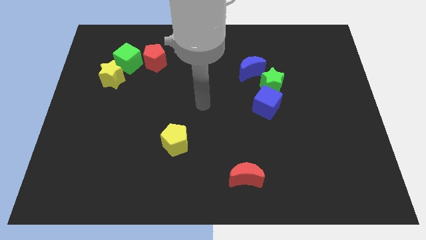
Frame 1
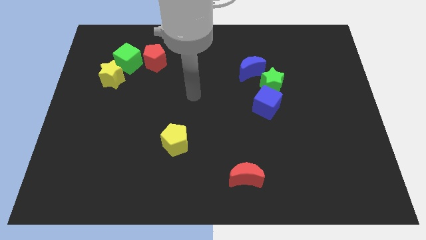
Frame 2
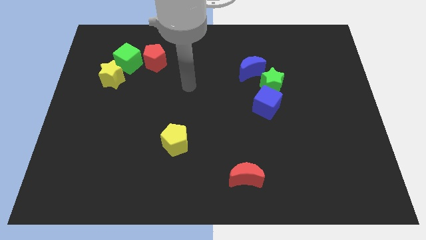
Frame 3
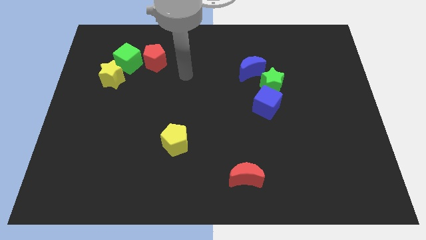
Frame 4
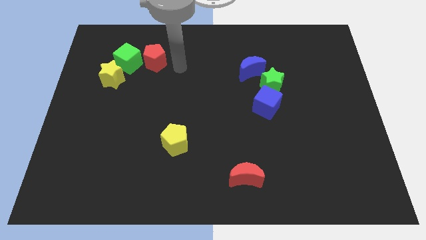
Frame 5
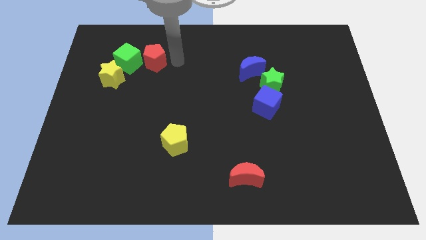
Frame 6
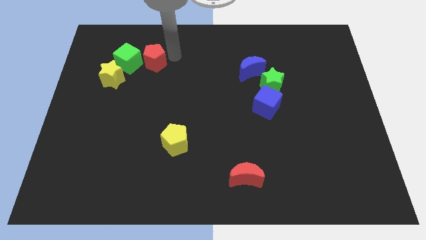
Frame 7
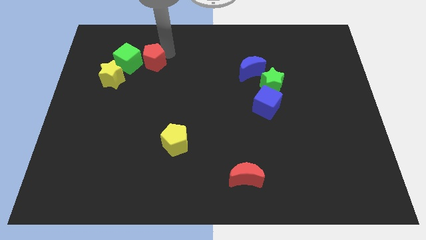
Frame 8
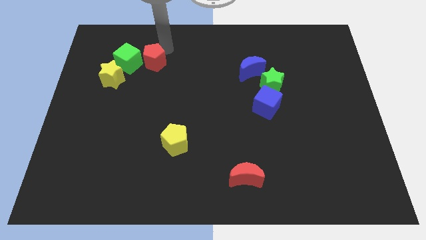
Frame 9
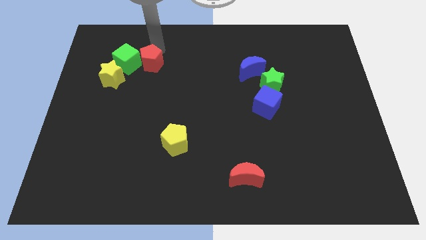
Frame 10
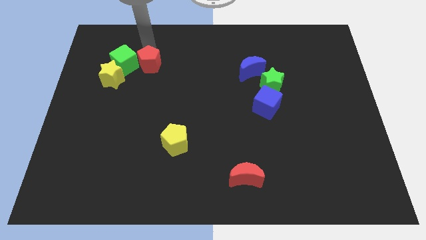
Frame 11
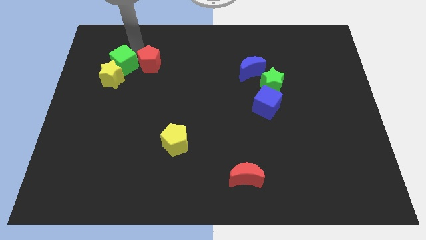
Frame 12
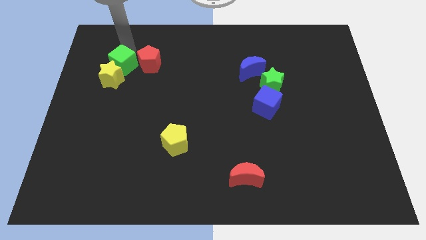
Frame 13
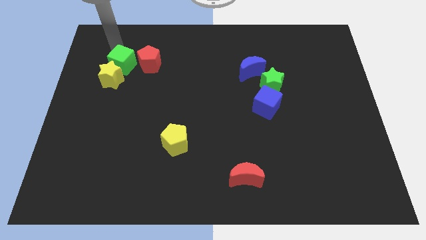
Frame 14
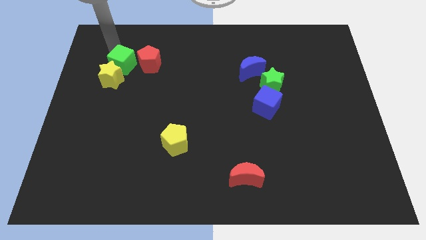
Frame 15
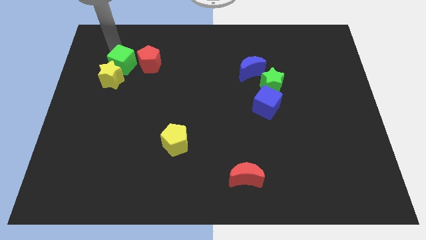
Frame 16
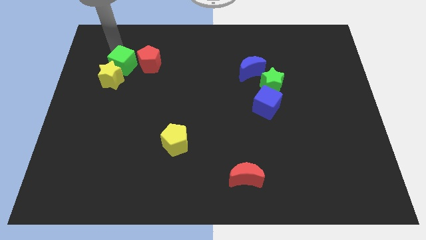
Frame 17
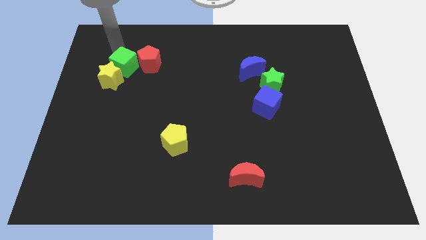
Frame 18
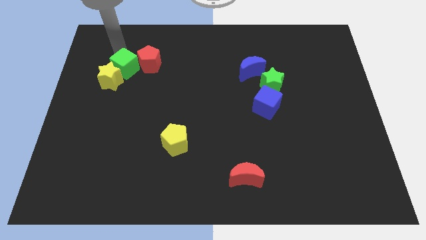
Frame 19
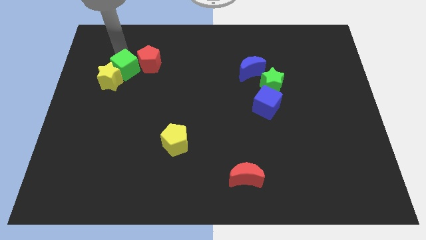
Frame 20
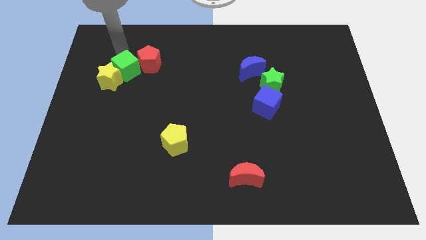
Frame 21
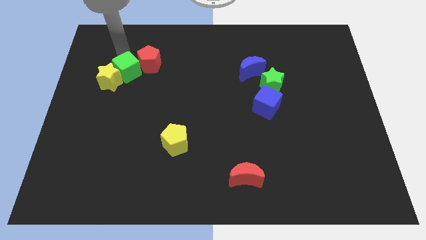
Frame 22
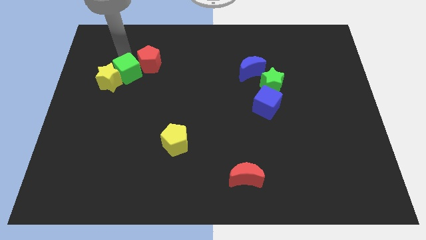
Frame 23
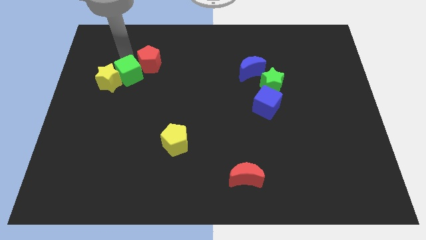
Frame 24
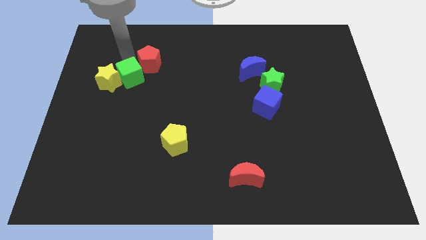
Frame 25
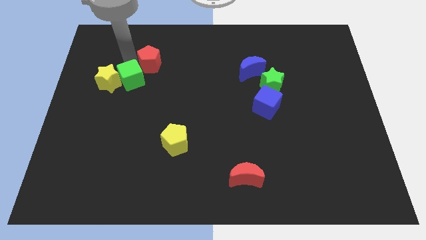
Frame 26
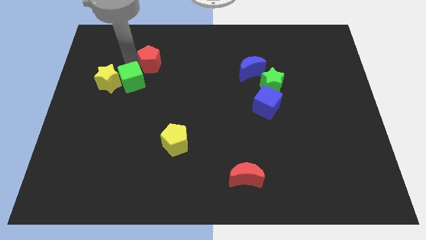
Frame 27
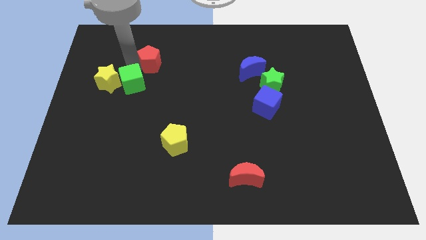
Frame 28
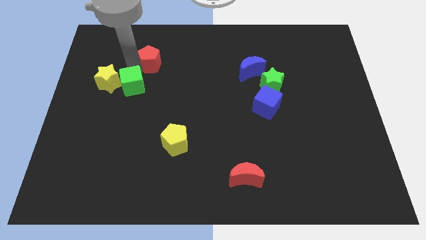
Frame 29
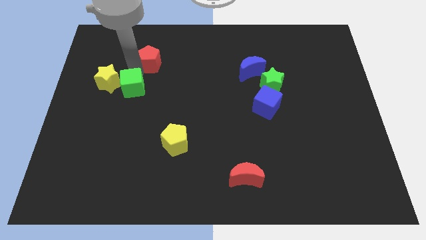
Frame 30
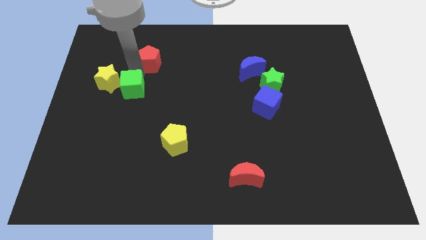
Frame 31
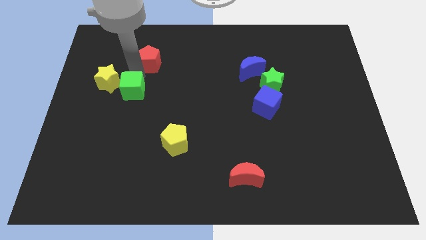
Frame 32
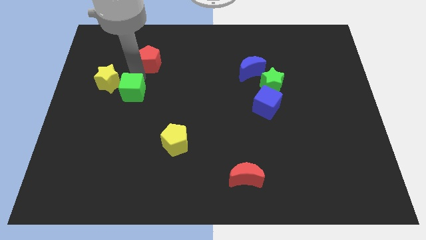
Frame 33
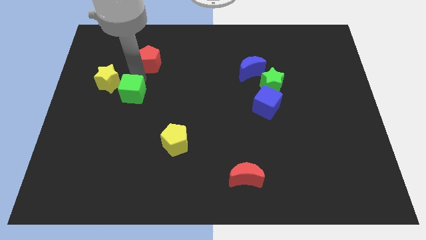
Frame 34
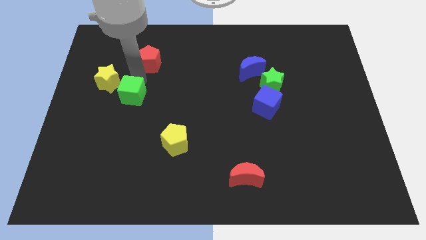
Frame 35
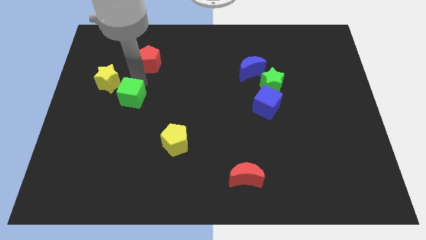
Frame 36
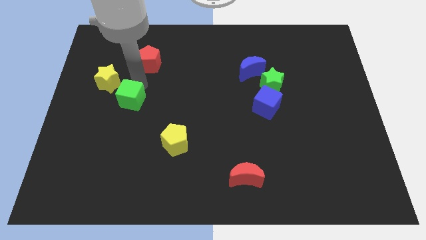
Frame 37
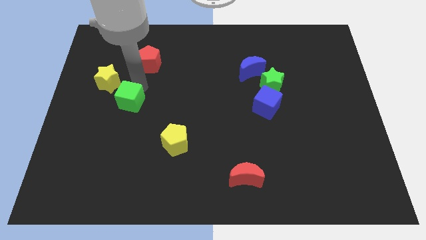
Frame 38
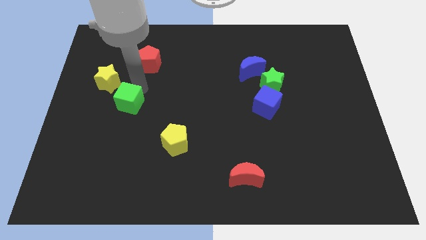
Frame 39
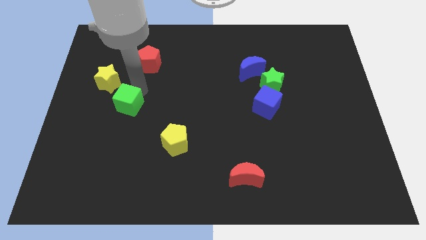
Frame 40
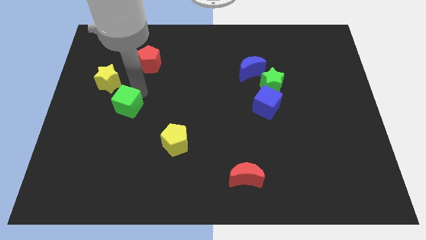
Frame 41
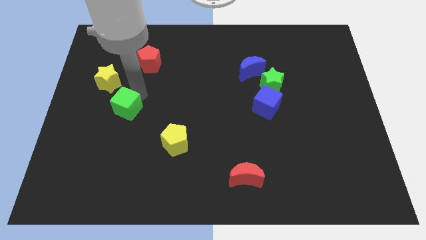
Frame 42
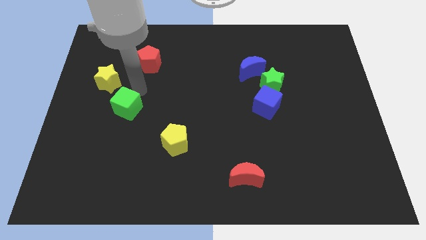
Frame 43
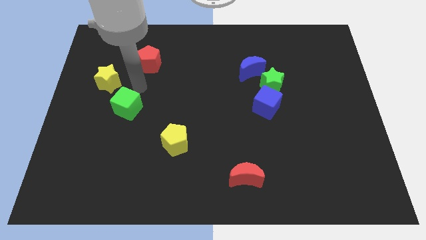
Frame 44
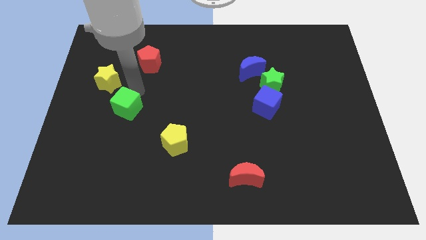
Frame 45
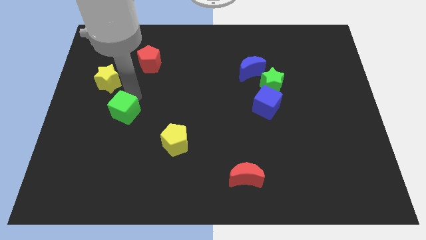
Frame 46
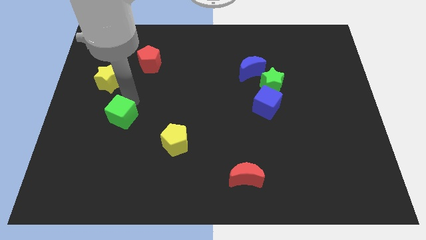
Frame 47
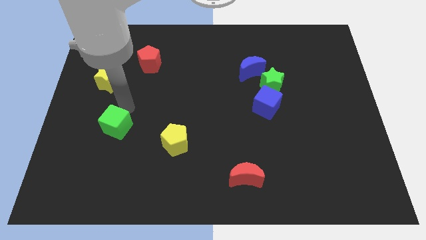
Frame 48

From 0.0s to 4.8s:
move the green cube down

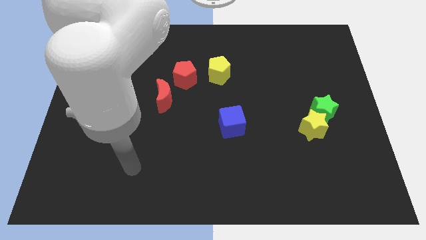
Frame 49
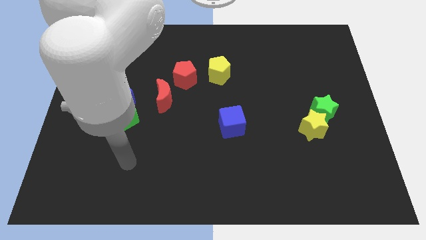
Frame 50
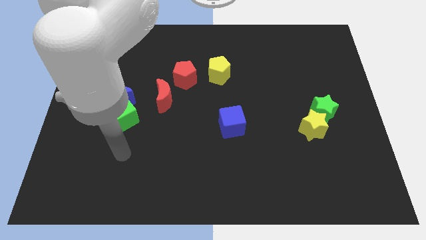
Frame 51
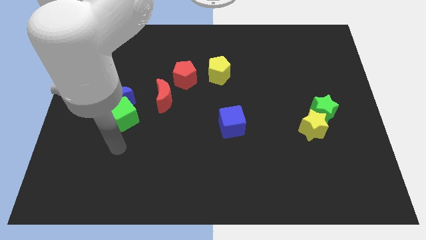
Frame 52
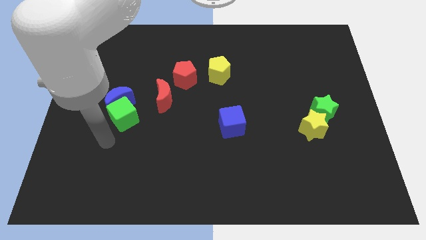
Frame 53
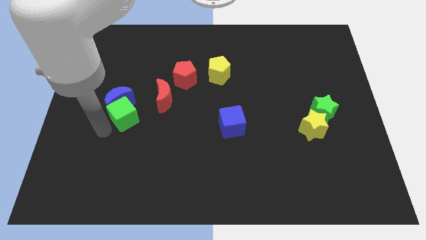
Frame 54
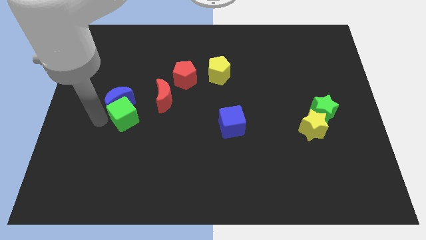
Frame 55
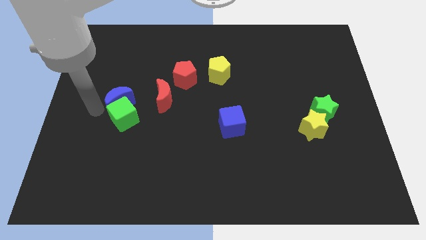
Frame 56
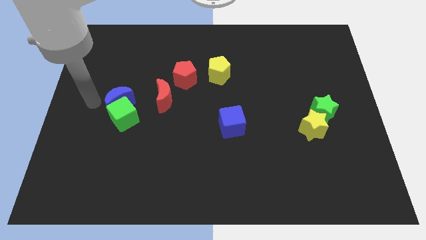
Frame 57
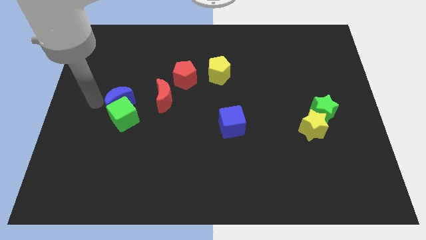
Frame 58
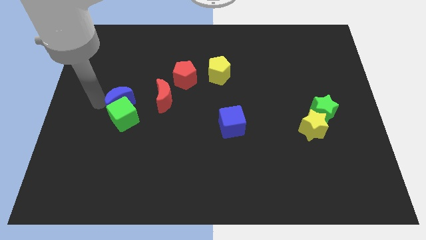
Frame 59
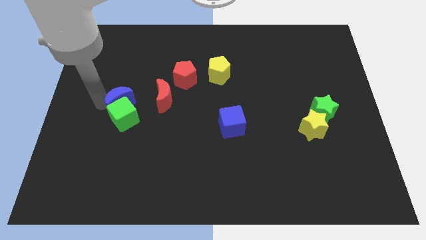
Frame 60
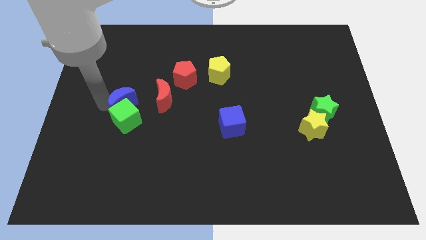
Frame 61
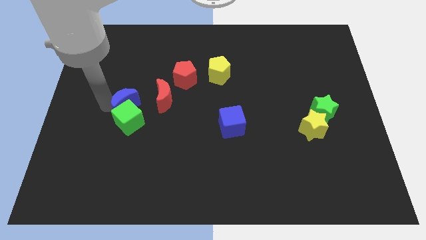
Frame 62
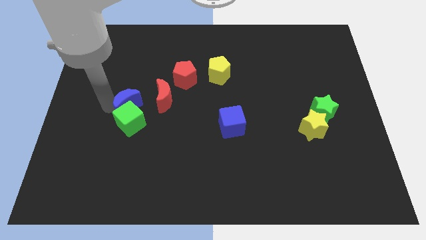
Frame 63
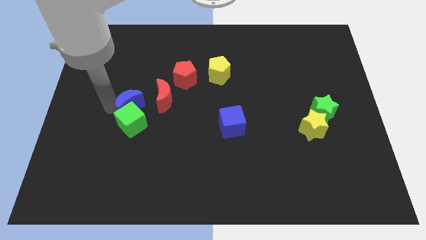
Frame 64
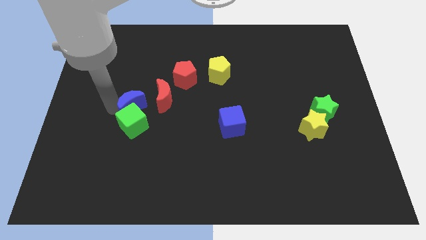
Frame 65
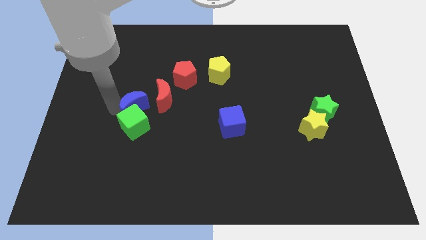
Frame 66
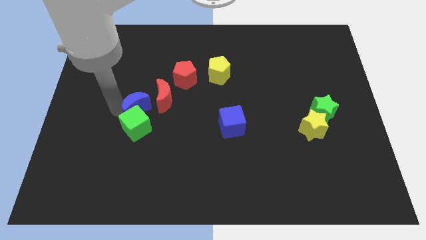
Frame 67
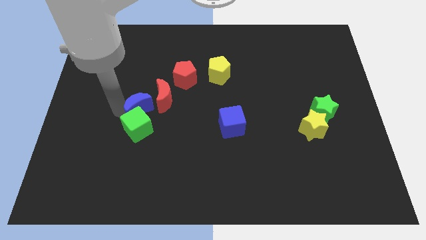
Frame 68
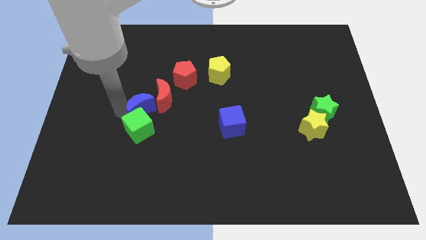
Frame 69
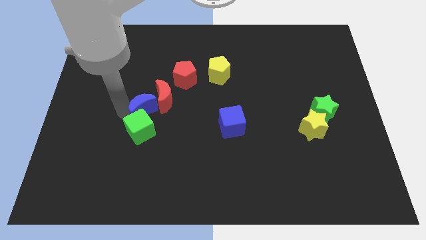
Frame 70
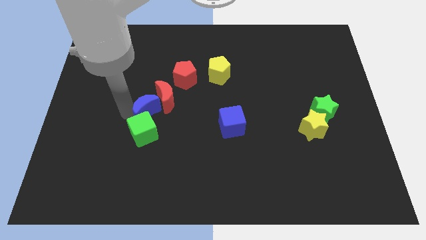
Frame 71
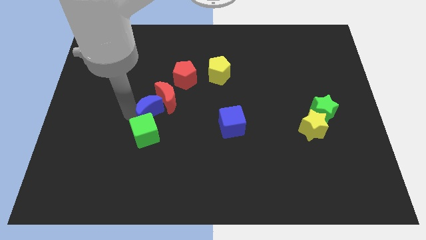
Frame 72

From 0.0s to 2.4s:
push the blue moon right somewhat

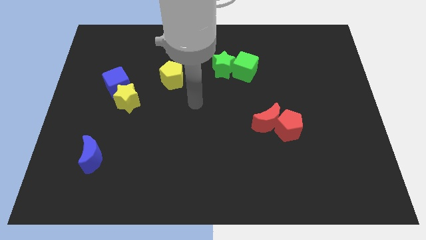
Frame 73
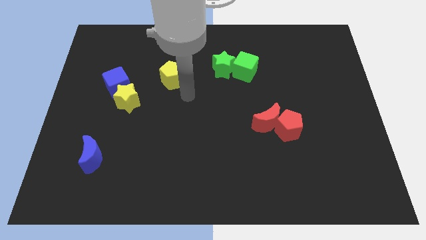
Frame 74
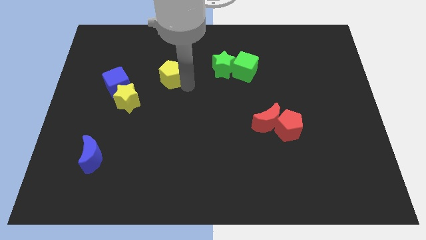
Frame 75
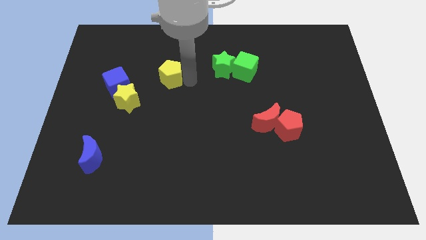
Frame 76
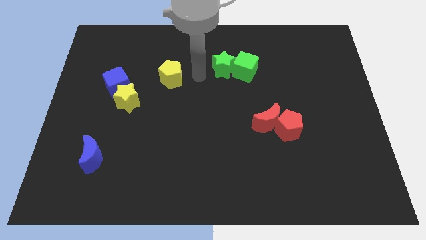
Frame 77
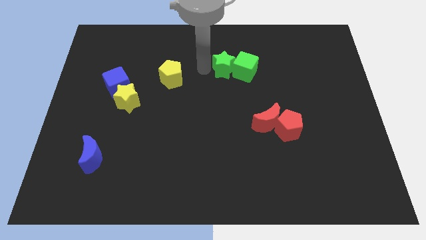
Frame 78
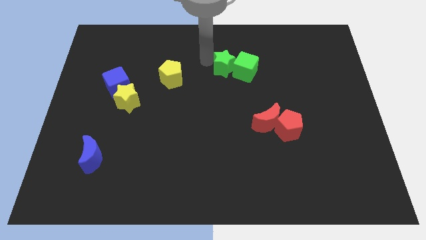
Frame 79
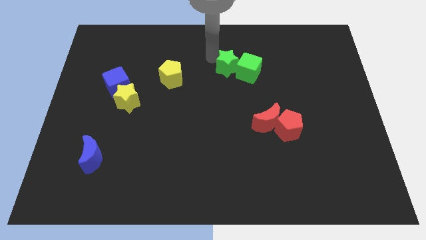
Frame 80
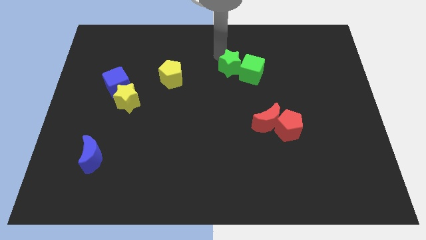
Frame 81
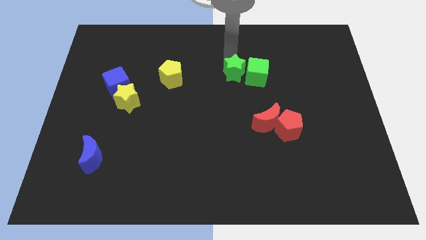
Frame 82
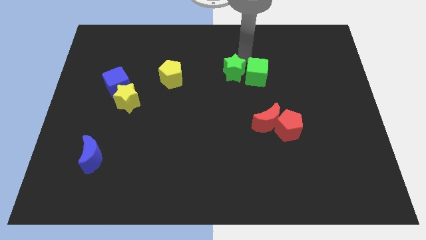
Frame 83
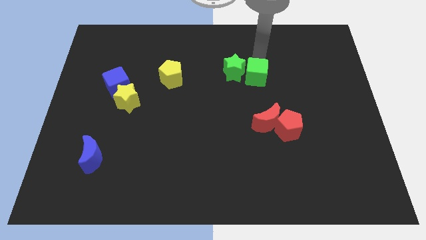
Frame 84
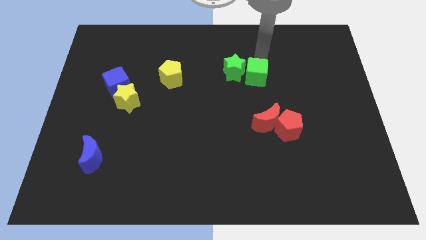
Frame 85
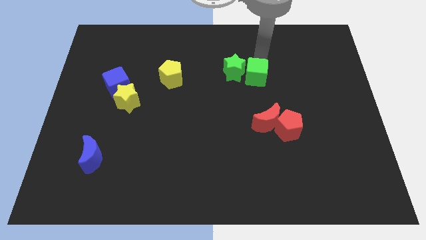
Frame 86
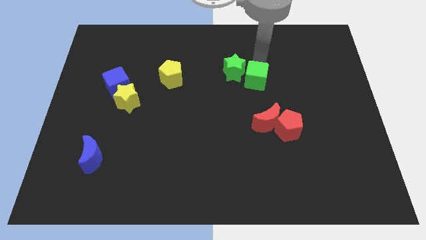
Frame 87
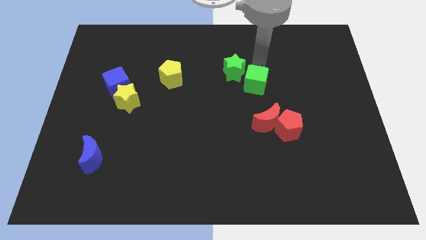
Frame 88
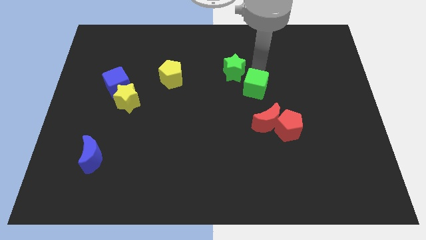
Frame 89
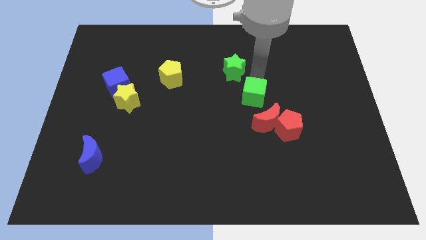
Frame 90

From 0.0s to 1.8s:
slide the green cube somewhat downwards
